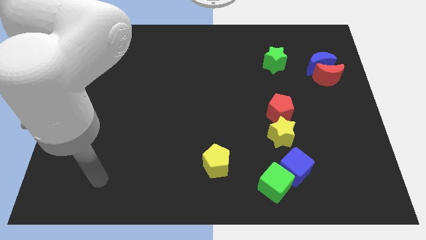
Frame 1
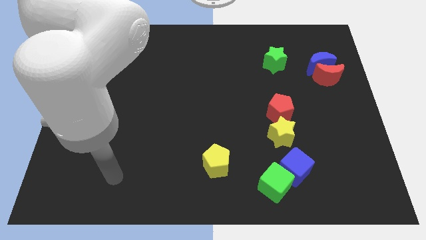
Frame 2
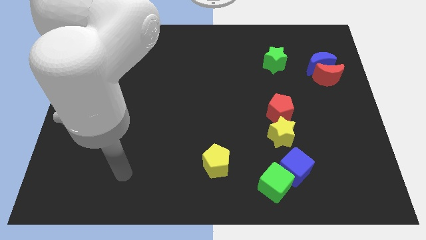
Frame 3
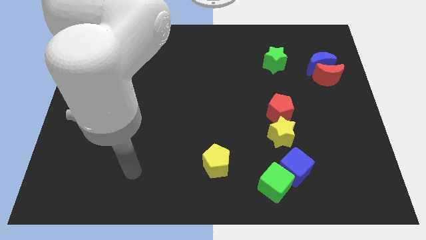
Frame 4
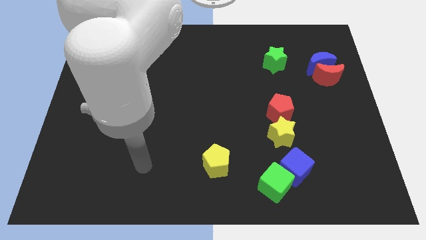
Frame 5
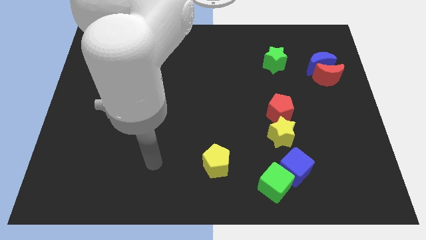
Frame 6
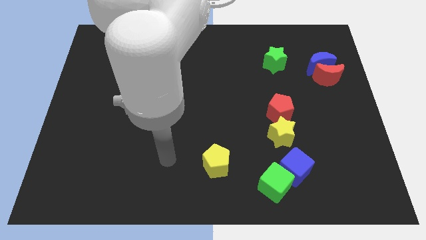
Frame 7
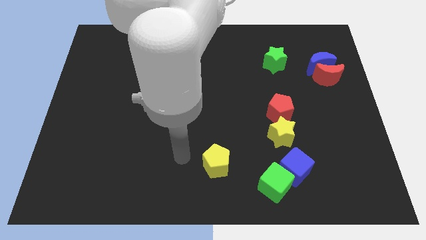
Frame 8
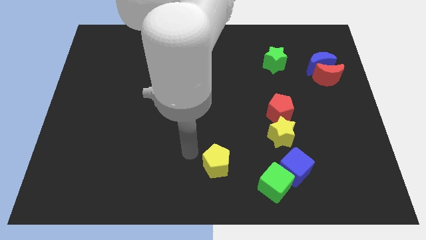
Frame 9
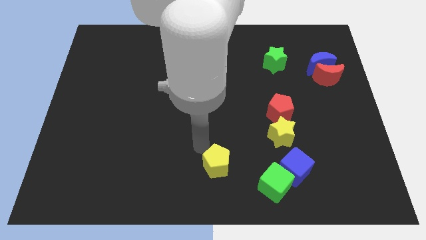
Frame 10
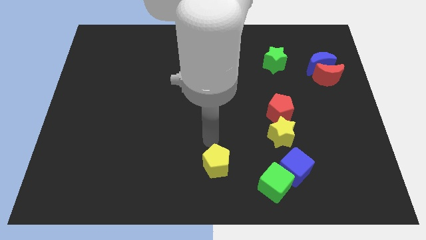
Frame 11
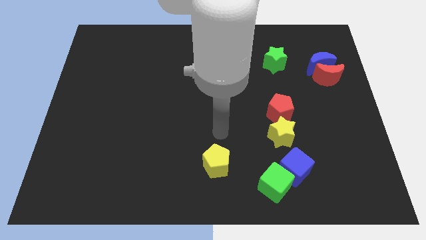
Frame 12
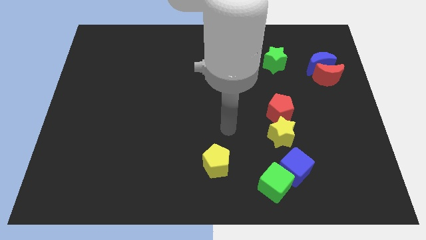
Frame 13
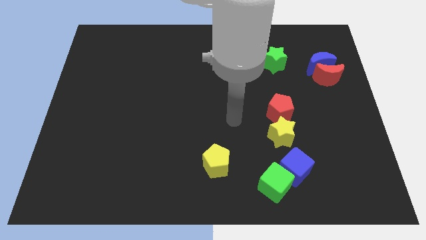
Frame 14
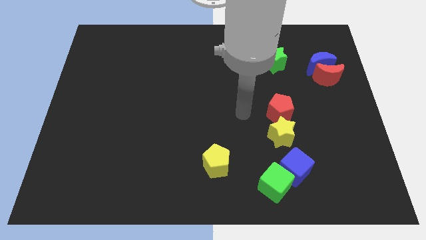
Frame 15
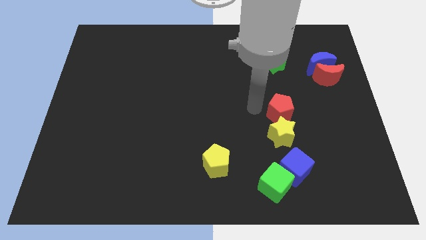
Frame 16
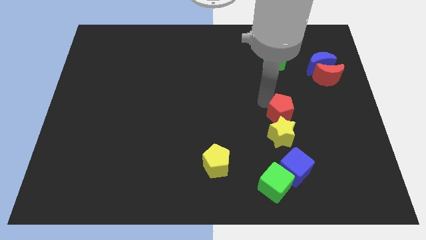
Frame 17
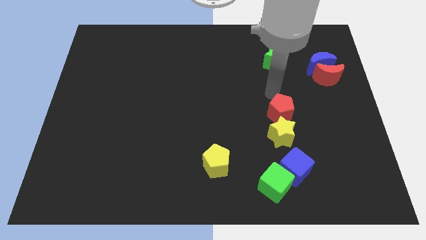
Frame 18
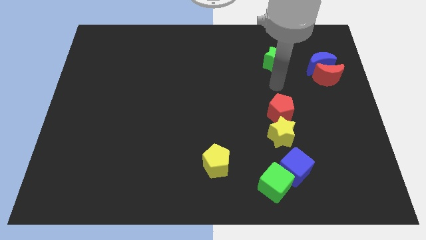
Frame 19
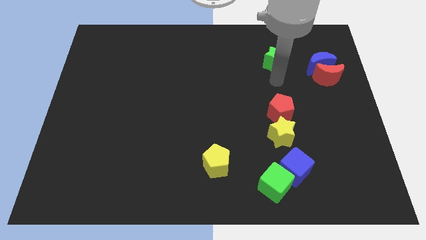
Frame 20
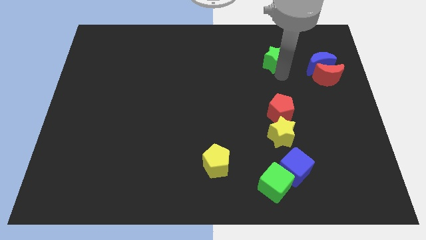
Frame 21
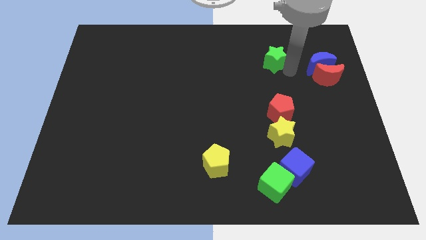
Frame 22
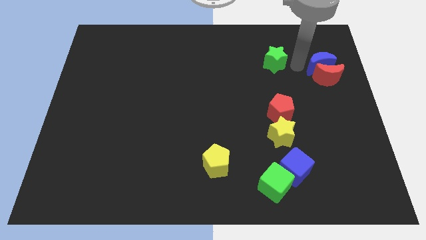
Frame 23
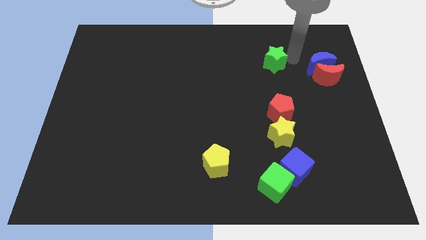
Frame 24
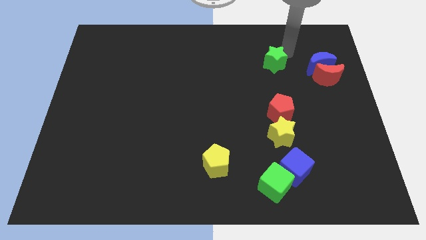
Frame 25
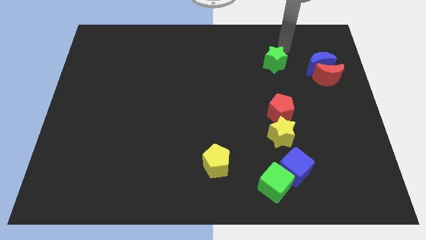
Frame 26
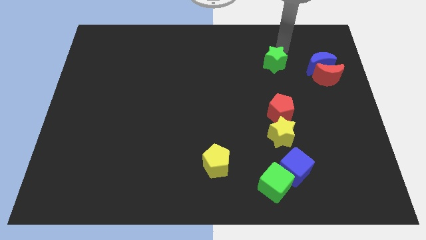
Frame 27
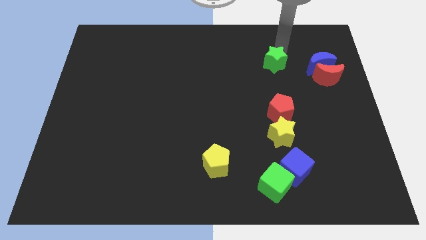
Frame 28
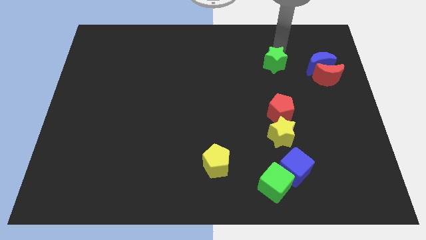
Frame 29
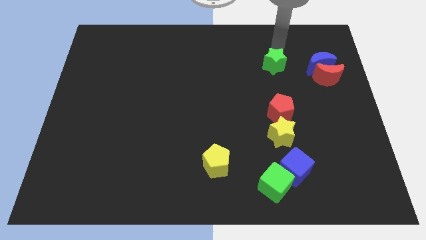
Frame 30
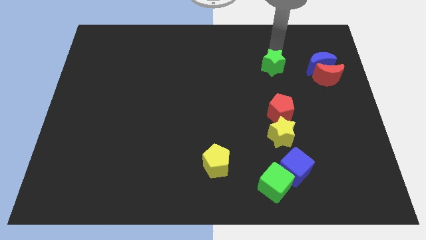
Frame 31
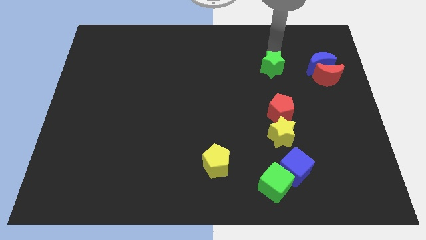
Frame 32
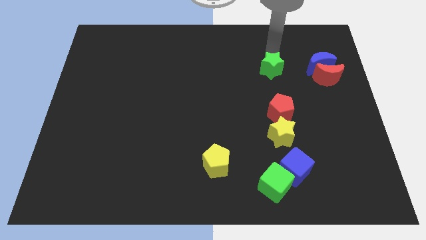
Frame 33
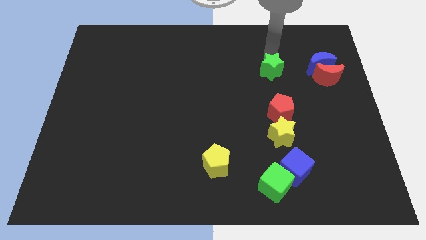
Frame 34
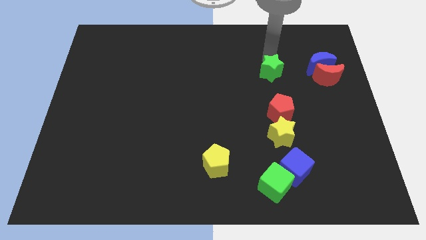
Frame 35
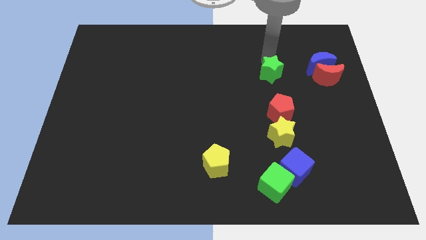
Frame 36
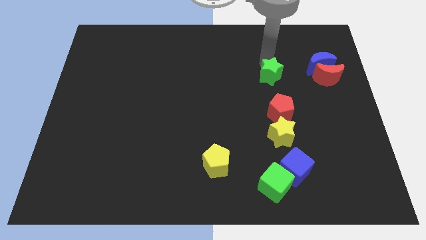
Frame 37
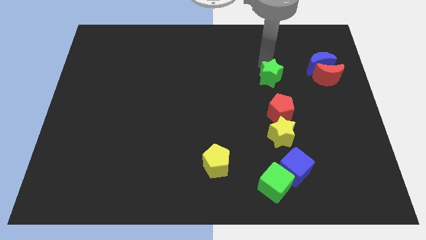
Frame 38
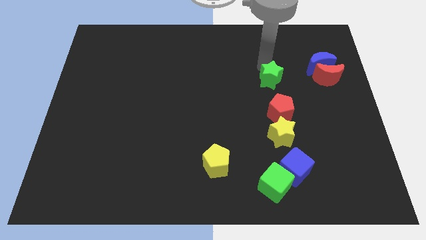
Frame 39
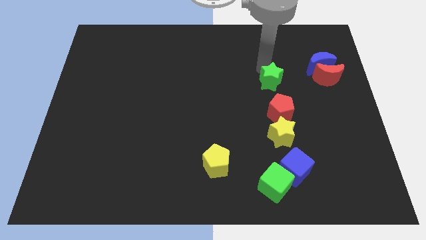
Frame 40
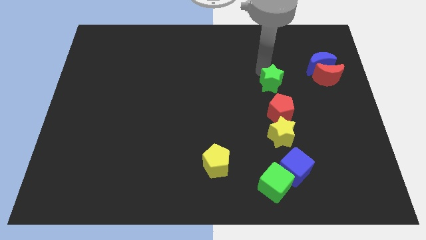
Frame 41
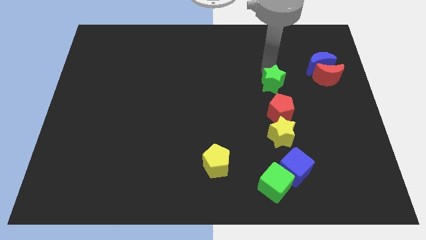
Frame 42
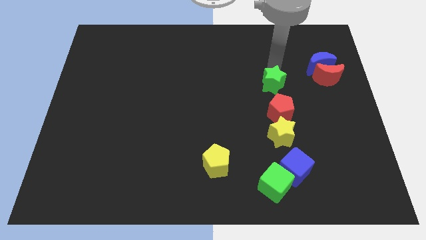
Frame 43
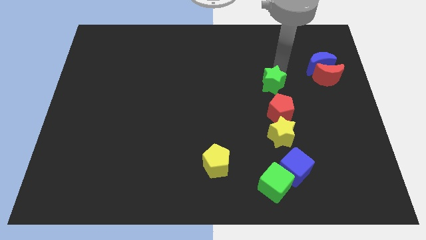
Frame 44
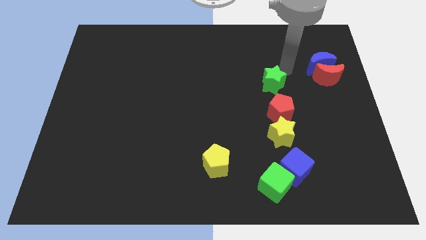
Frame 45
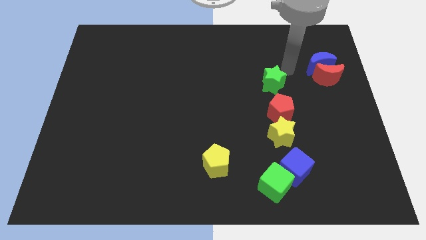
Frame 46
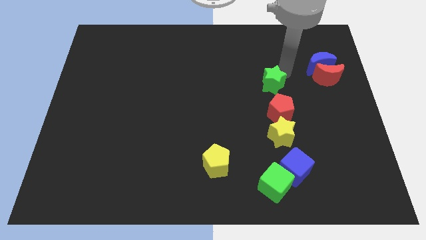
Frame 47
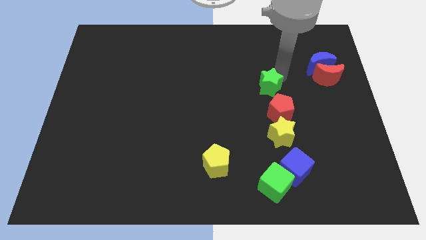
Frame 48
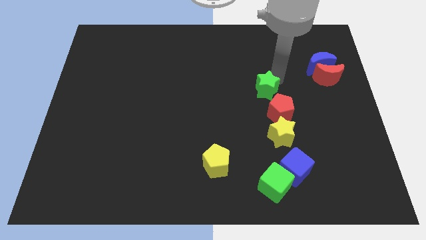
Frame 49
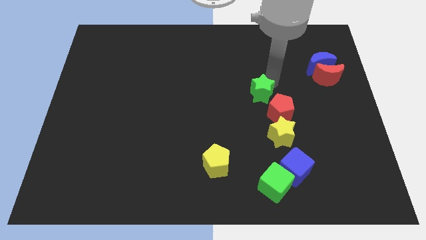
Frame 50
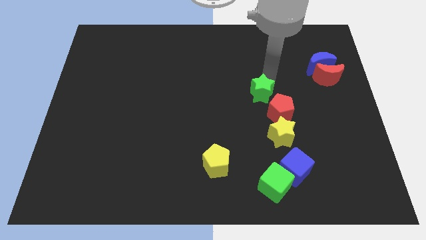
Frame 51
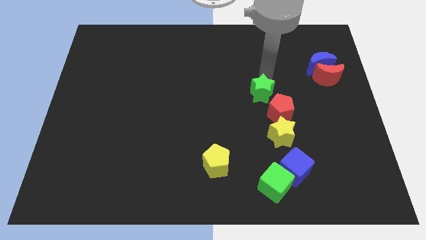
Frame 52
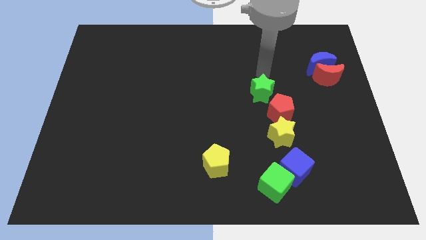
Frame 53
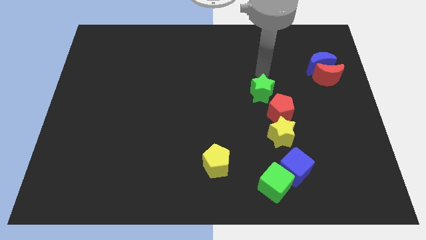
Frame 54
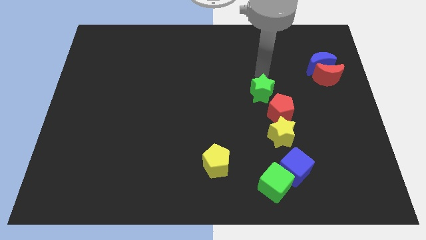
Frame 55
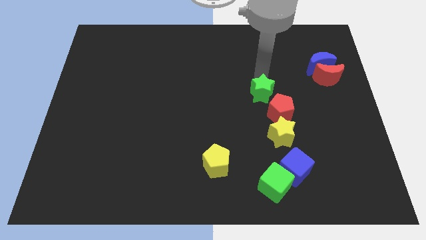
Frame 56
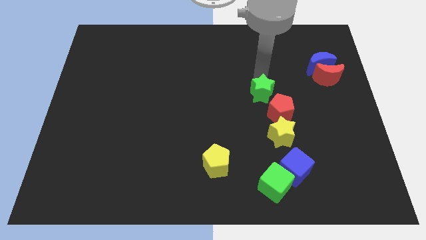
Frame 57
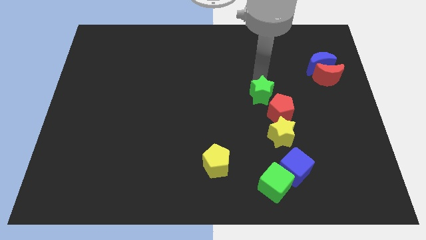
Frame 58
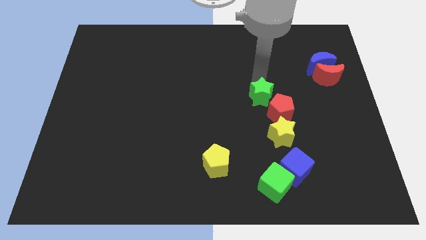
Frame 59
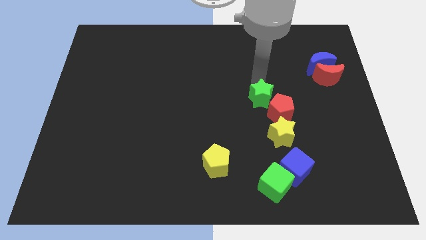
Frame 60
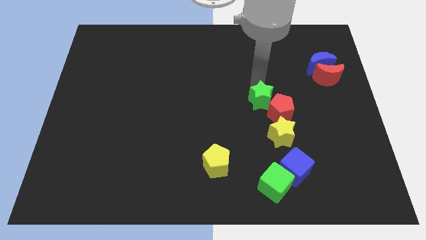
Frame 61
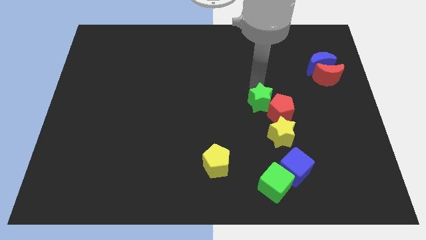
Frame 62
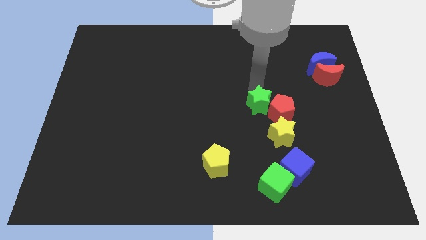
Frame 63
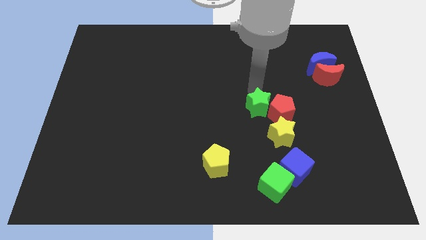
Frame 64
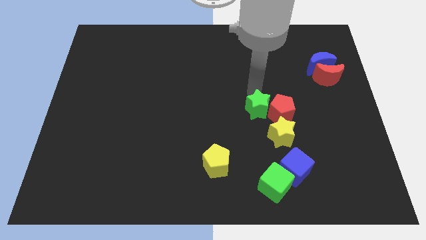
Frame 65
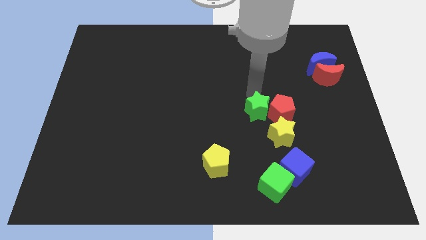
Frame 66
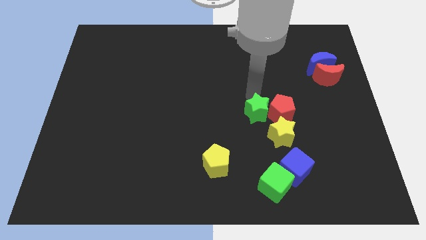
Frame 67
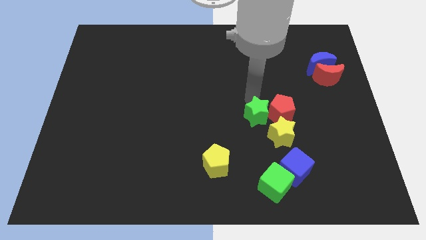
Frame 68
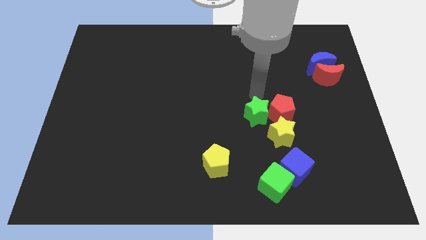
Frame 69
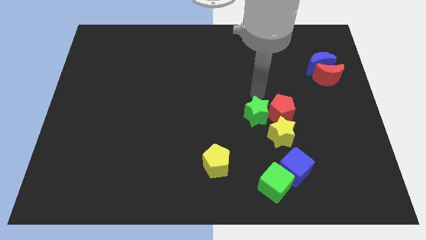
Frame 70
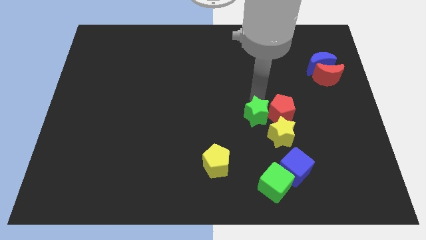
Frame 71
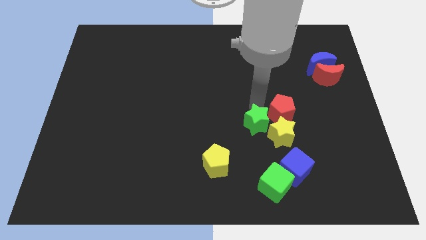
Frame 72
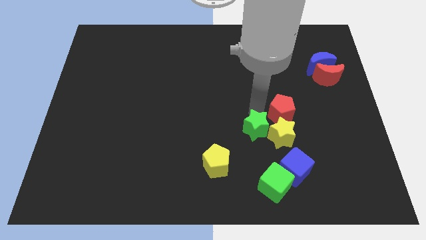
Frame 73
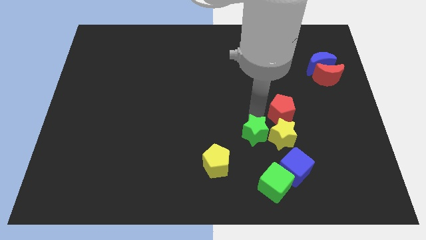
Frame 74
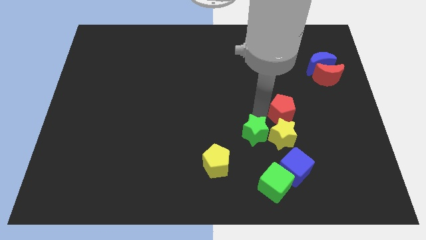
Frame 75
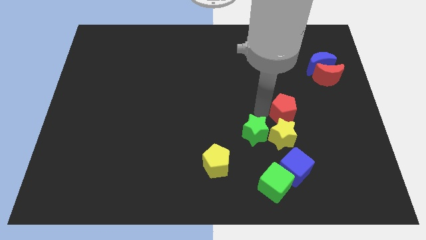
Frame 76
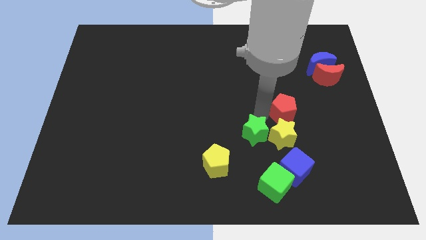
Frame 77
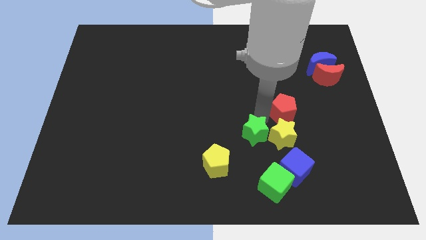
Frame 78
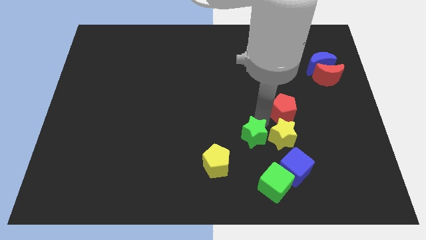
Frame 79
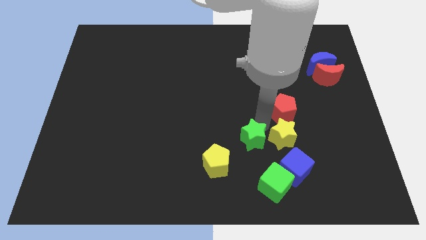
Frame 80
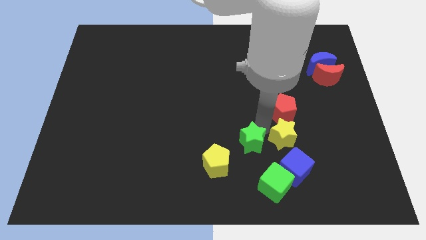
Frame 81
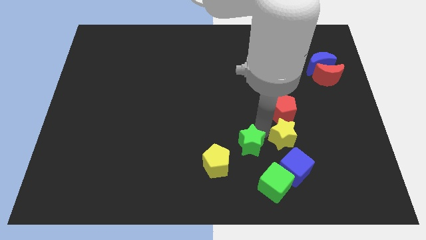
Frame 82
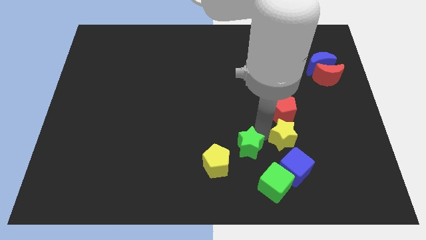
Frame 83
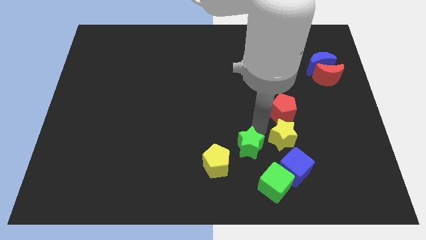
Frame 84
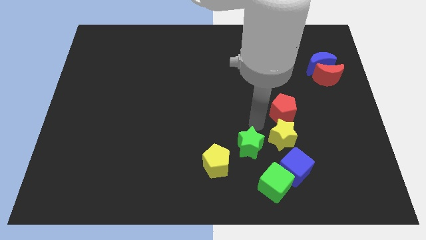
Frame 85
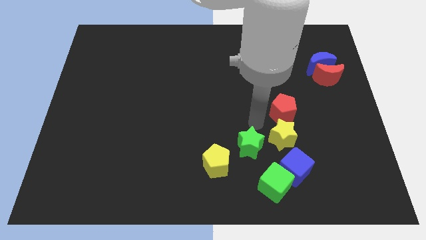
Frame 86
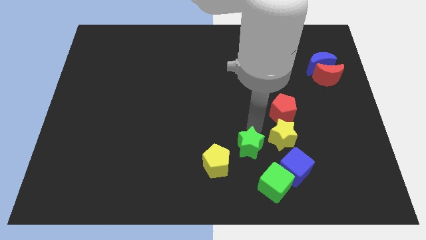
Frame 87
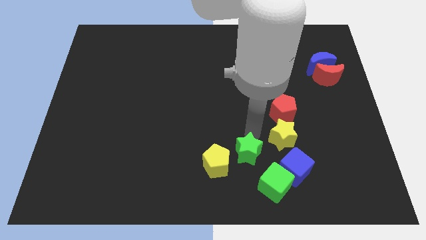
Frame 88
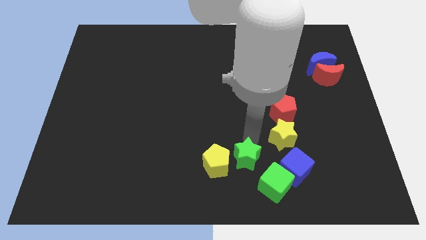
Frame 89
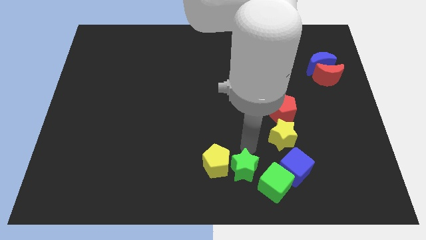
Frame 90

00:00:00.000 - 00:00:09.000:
slide the green star to the bottom side
